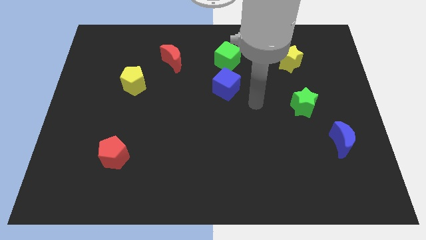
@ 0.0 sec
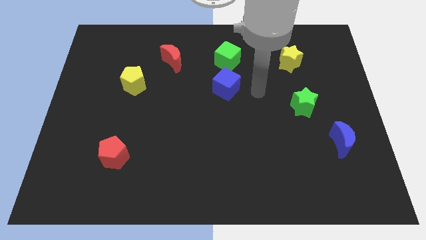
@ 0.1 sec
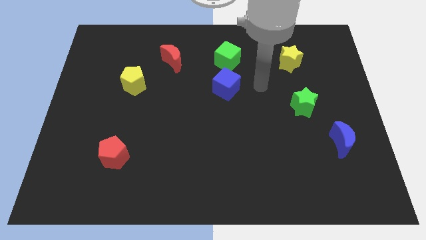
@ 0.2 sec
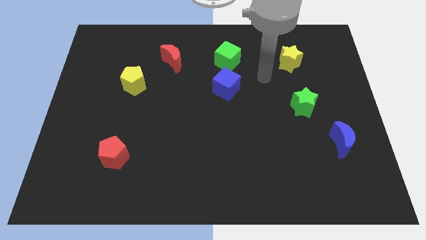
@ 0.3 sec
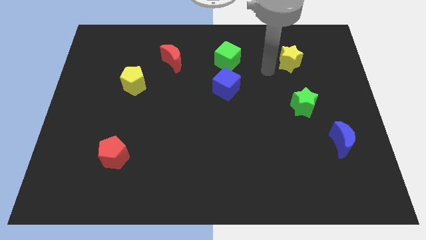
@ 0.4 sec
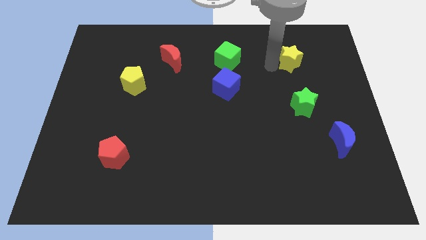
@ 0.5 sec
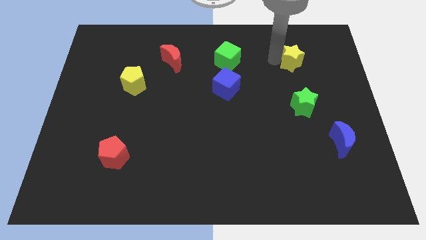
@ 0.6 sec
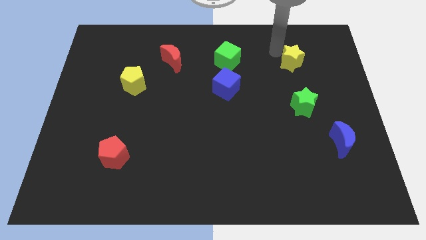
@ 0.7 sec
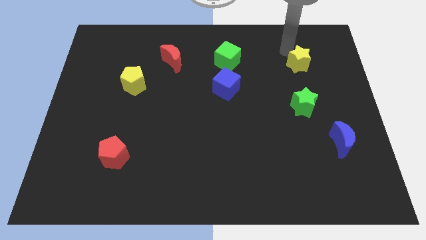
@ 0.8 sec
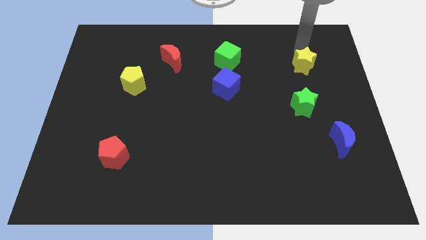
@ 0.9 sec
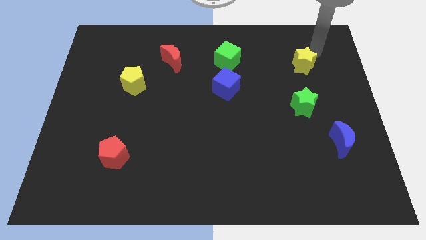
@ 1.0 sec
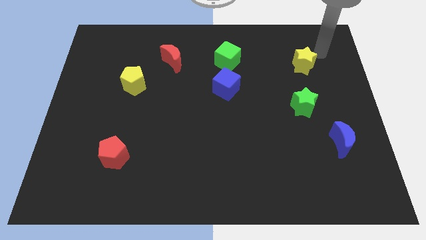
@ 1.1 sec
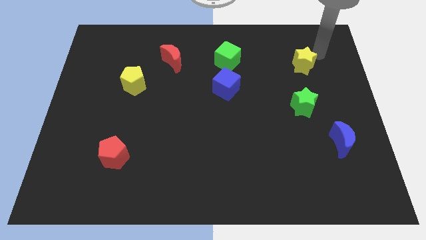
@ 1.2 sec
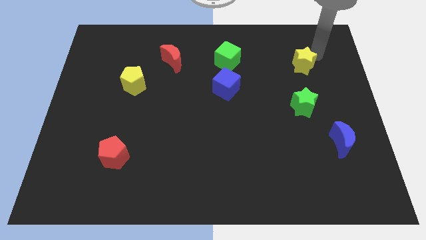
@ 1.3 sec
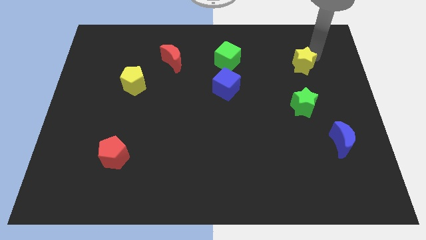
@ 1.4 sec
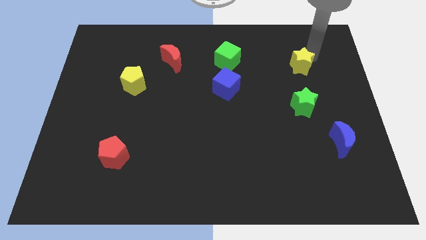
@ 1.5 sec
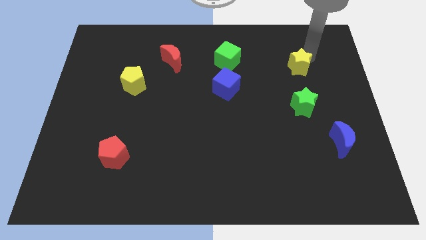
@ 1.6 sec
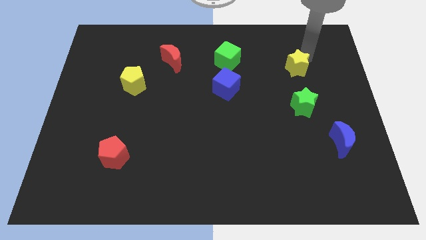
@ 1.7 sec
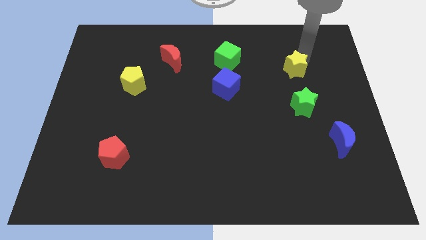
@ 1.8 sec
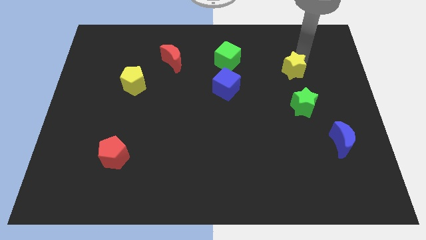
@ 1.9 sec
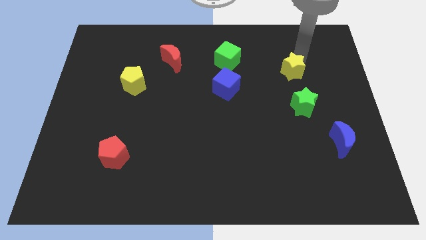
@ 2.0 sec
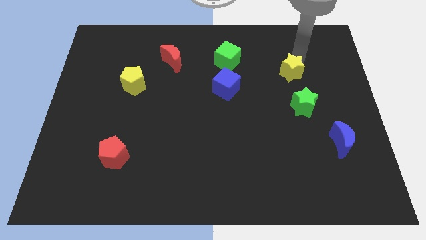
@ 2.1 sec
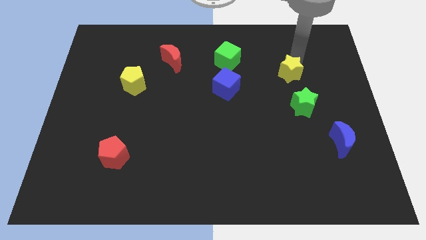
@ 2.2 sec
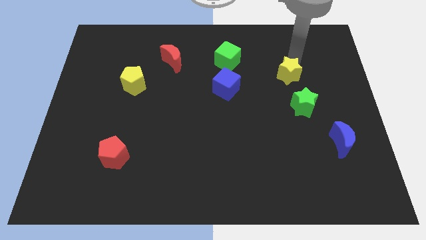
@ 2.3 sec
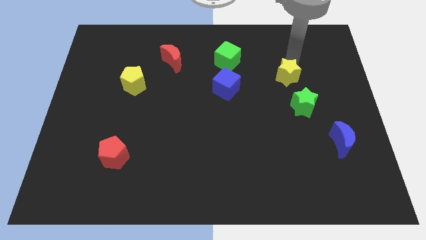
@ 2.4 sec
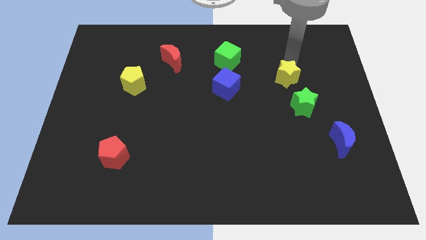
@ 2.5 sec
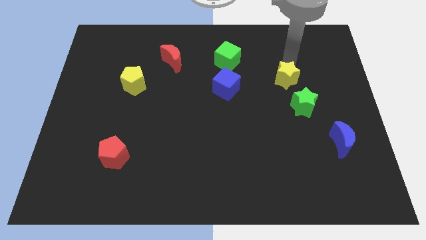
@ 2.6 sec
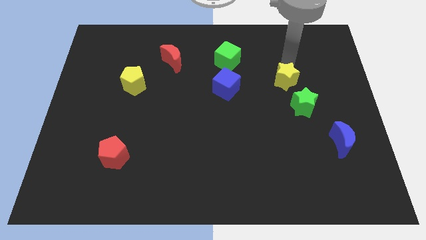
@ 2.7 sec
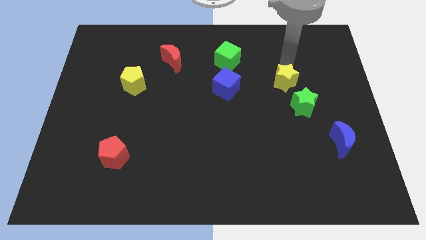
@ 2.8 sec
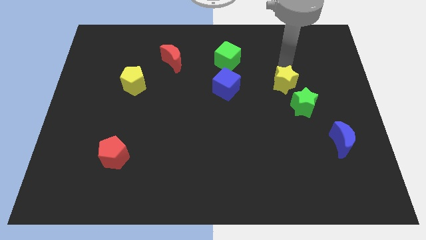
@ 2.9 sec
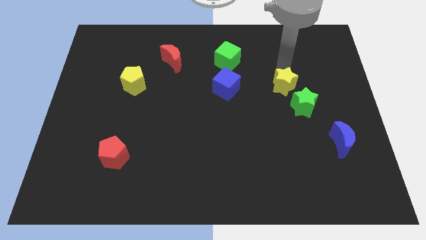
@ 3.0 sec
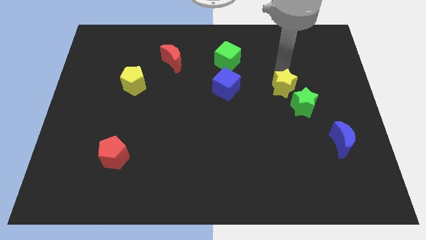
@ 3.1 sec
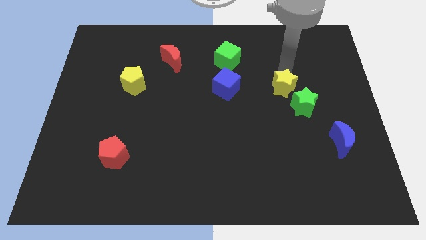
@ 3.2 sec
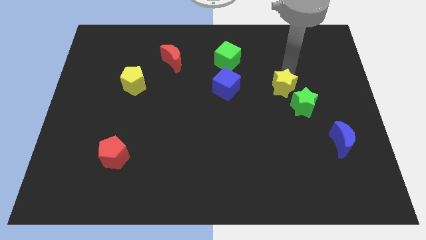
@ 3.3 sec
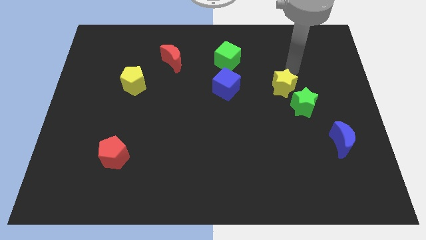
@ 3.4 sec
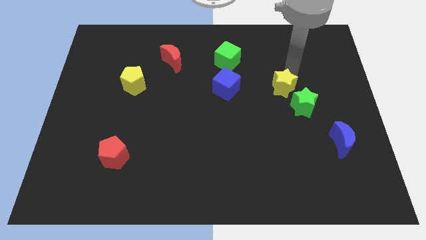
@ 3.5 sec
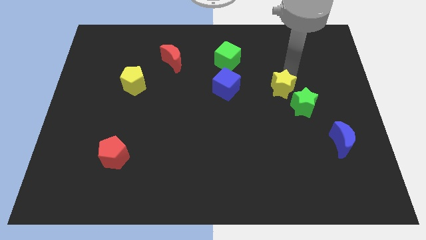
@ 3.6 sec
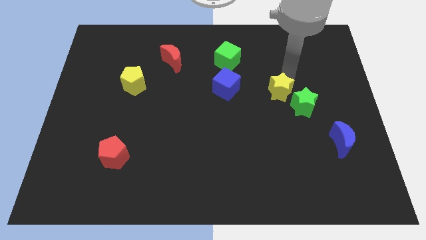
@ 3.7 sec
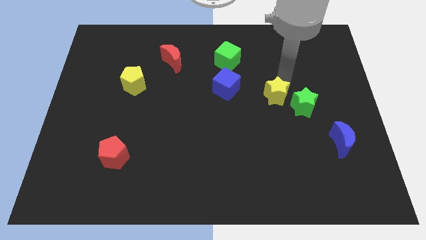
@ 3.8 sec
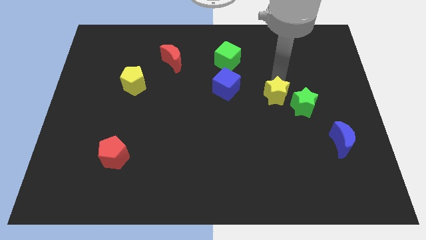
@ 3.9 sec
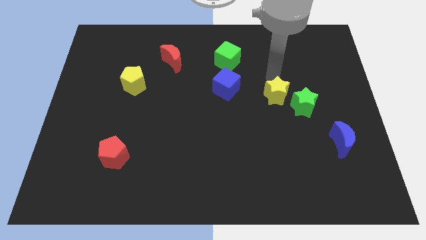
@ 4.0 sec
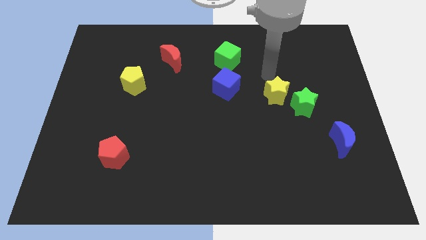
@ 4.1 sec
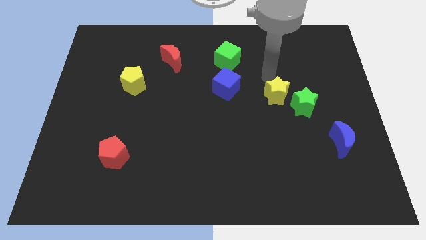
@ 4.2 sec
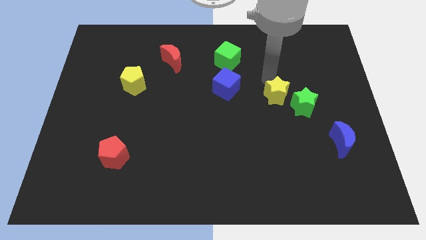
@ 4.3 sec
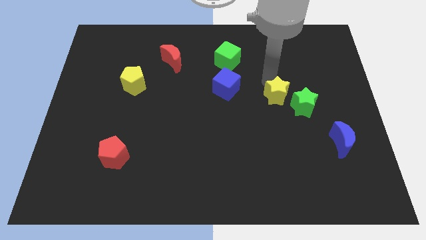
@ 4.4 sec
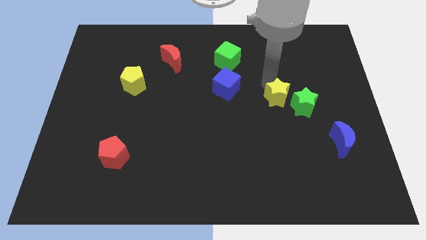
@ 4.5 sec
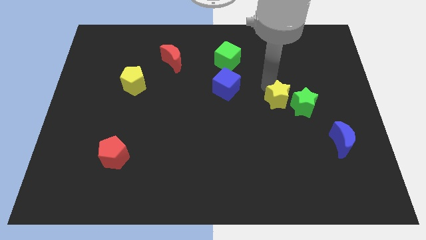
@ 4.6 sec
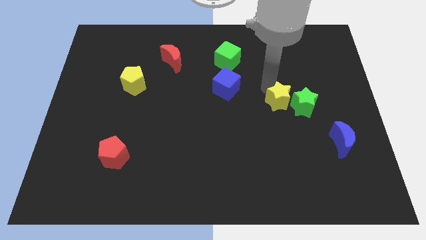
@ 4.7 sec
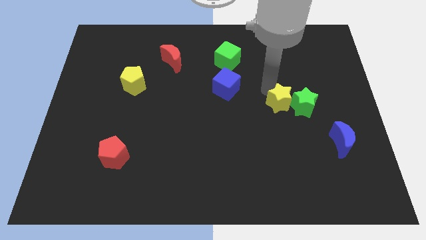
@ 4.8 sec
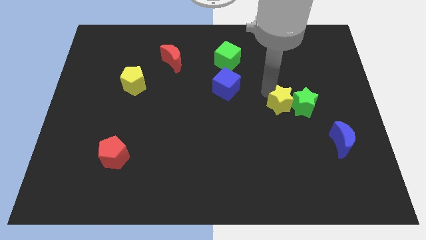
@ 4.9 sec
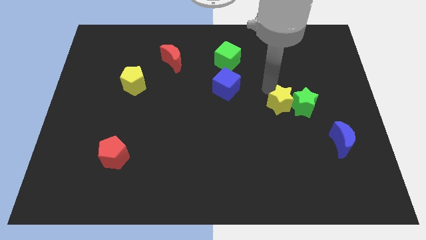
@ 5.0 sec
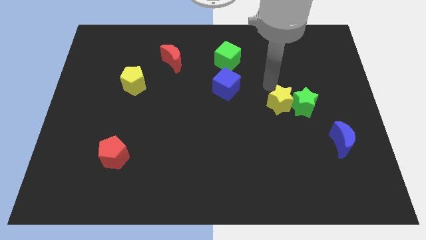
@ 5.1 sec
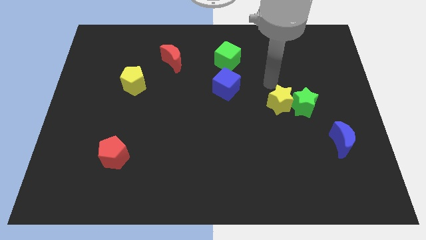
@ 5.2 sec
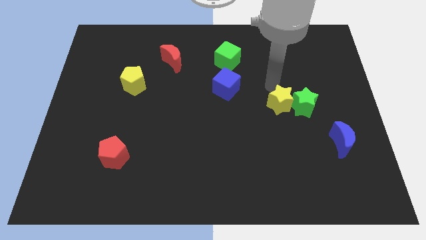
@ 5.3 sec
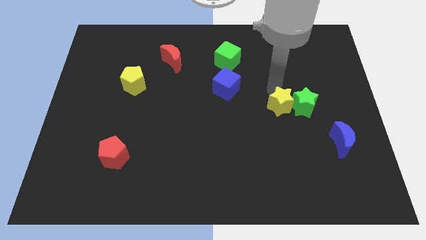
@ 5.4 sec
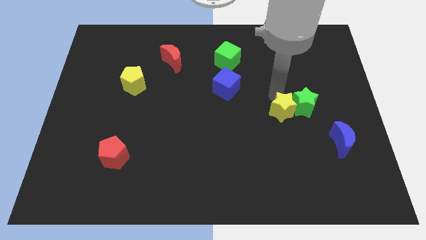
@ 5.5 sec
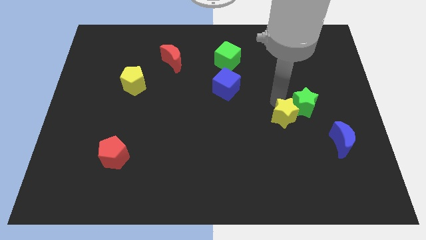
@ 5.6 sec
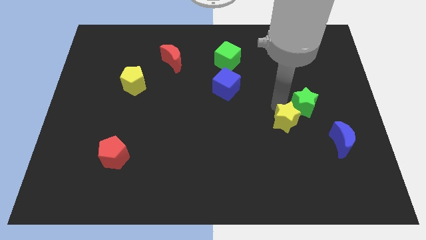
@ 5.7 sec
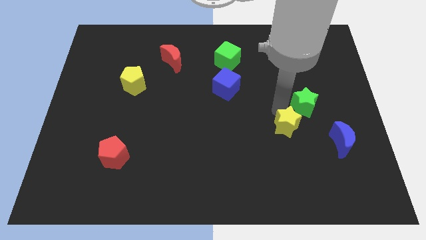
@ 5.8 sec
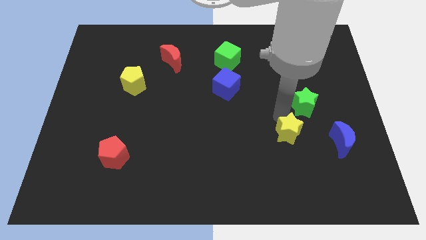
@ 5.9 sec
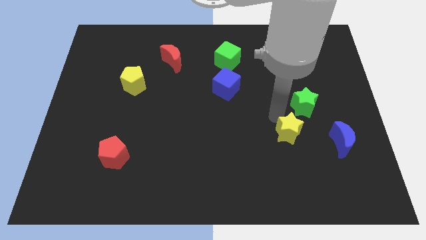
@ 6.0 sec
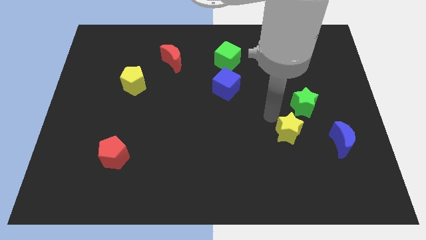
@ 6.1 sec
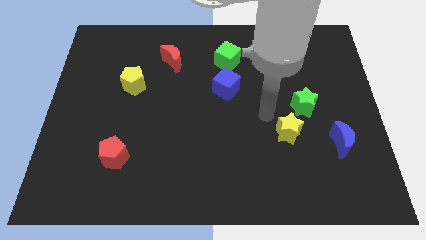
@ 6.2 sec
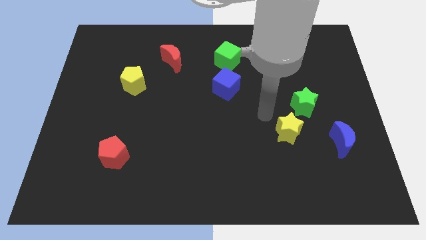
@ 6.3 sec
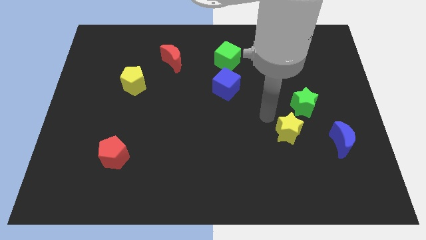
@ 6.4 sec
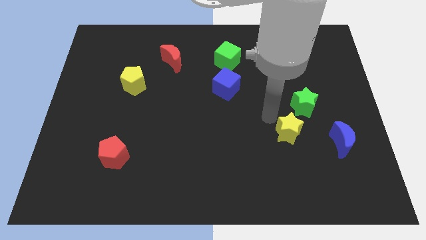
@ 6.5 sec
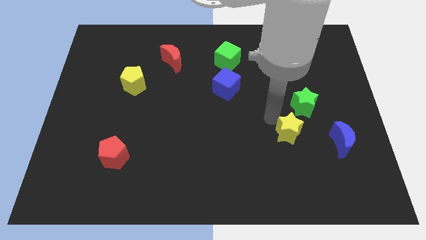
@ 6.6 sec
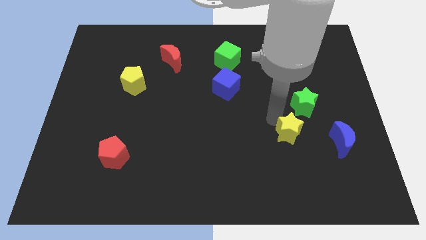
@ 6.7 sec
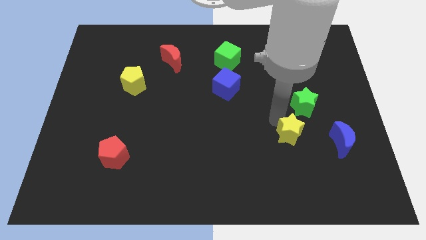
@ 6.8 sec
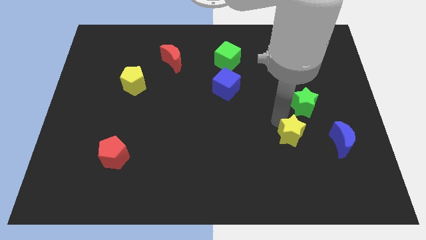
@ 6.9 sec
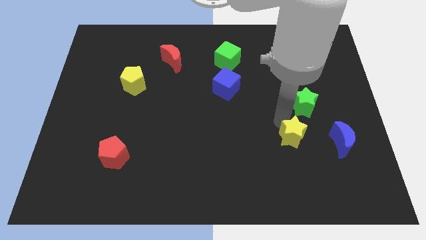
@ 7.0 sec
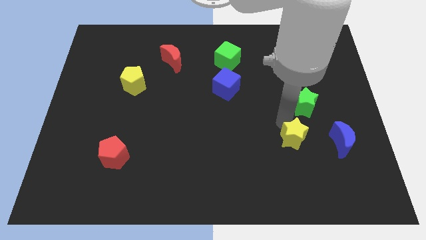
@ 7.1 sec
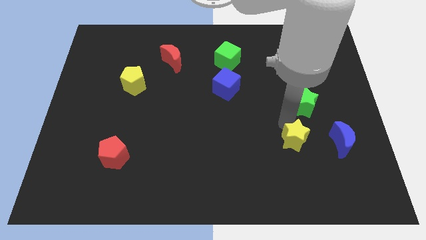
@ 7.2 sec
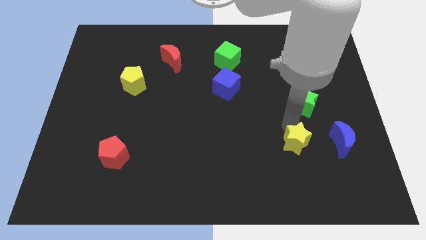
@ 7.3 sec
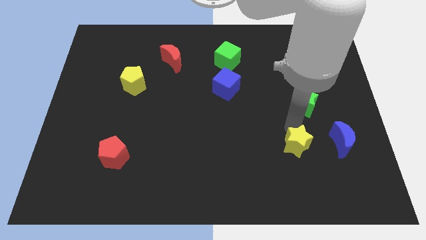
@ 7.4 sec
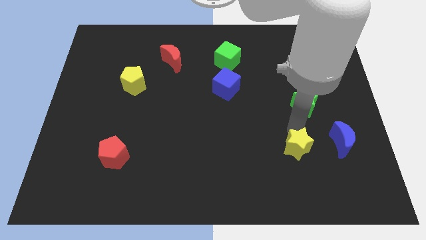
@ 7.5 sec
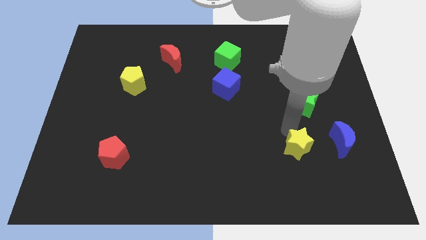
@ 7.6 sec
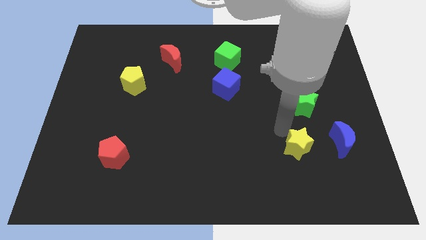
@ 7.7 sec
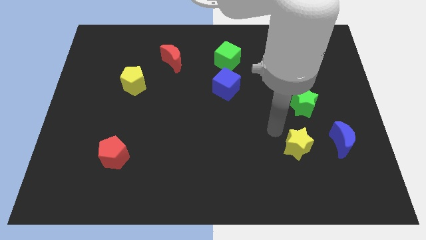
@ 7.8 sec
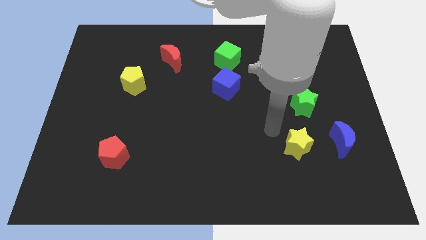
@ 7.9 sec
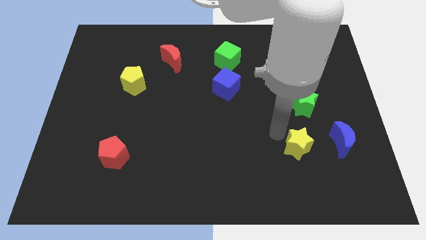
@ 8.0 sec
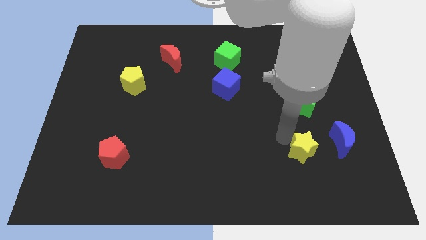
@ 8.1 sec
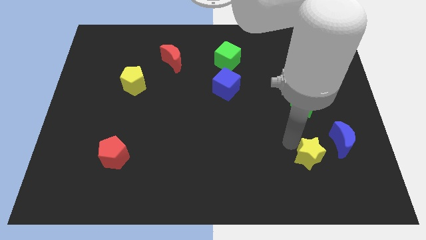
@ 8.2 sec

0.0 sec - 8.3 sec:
push the yellow star diagonally down and to the left of the blue moon
